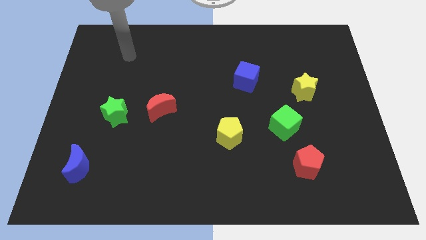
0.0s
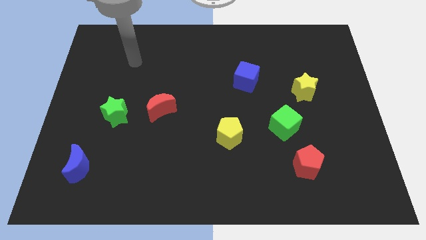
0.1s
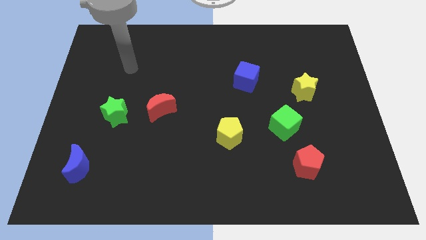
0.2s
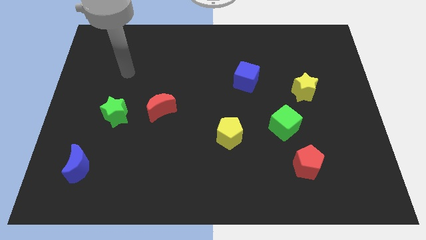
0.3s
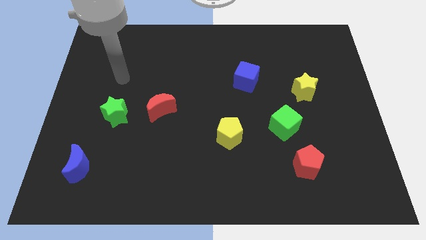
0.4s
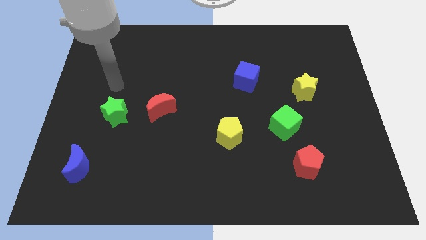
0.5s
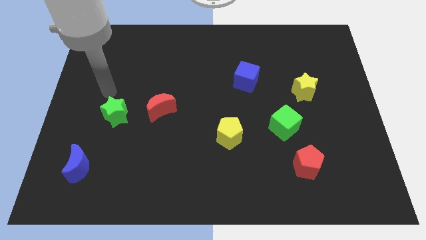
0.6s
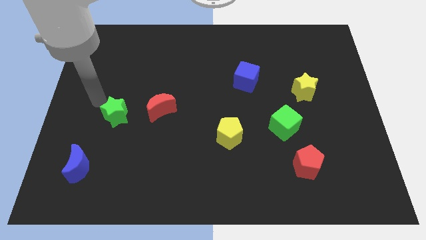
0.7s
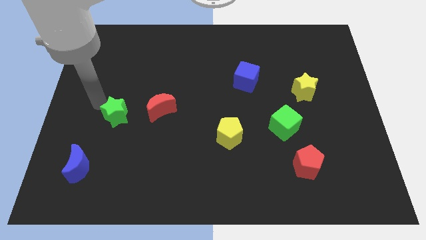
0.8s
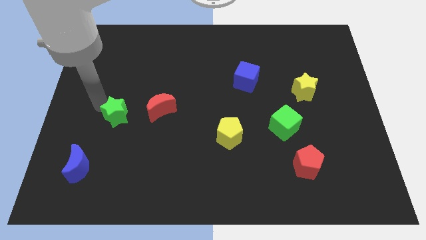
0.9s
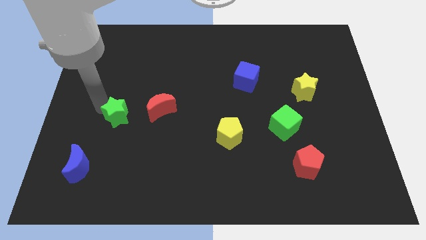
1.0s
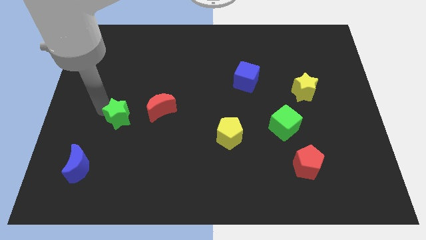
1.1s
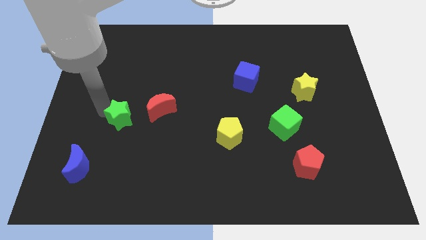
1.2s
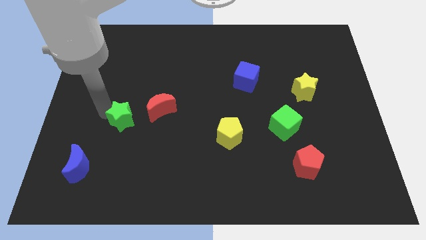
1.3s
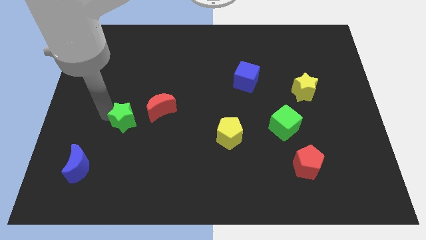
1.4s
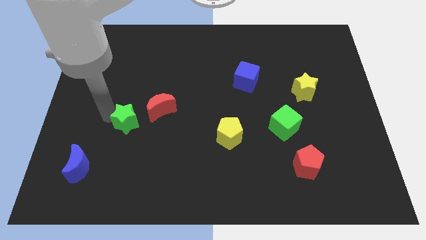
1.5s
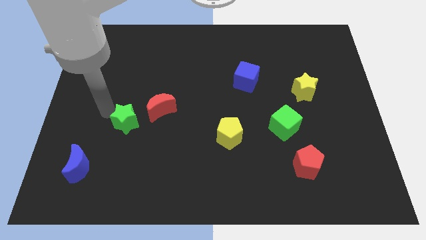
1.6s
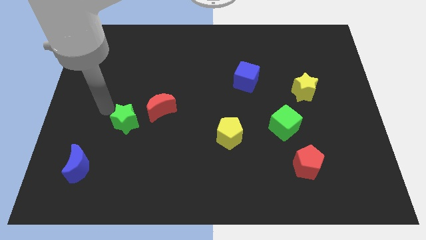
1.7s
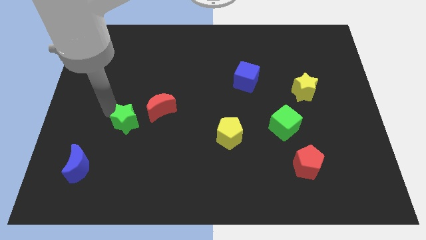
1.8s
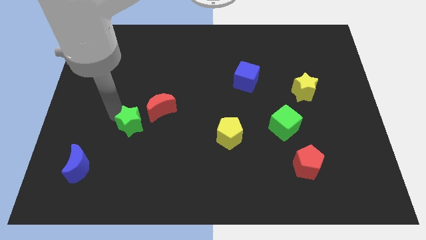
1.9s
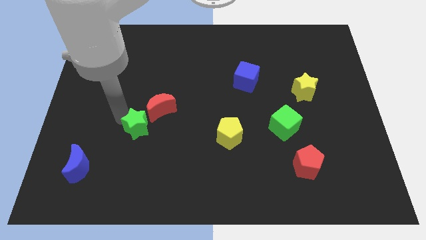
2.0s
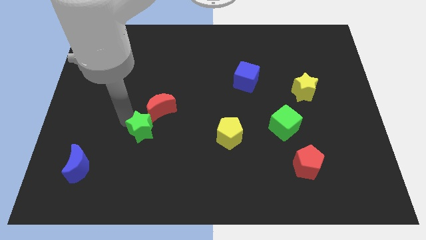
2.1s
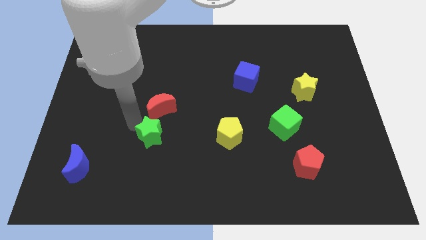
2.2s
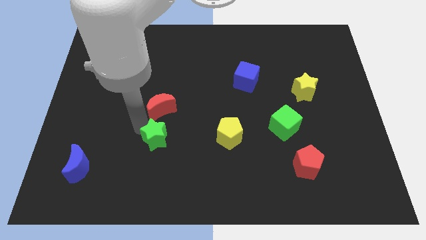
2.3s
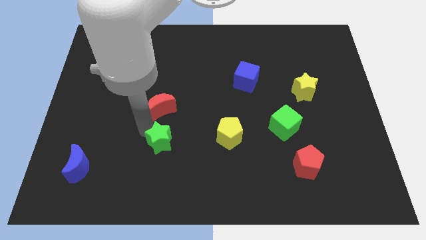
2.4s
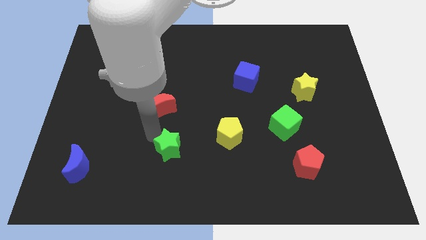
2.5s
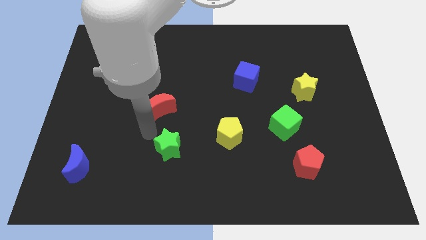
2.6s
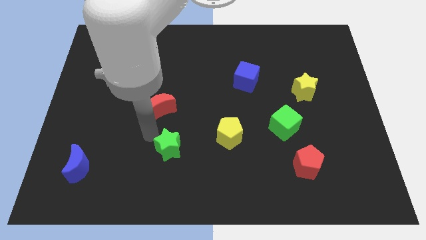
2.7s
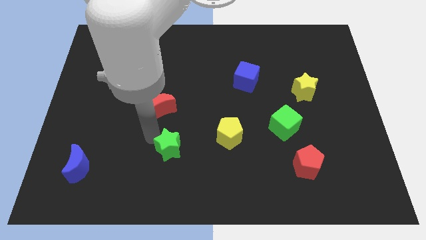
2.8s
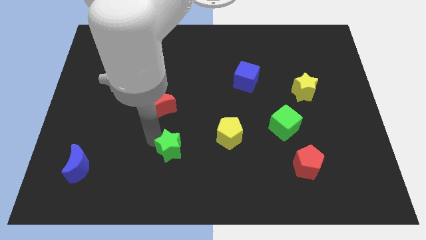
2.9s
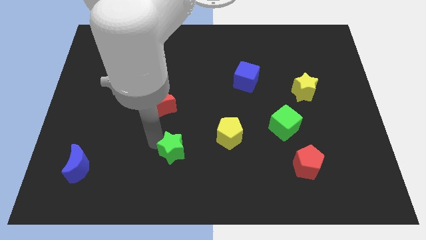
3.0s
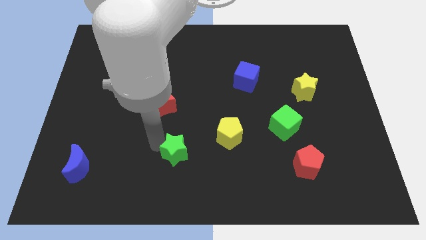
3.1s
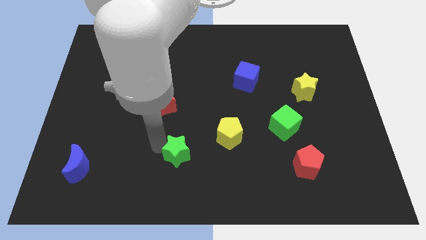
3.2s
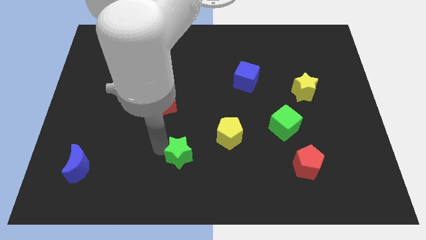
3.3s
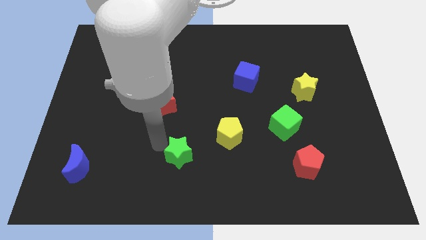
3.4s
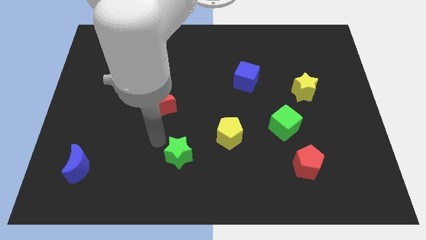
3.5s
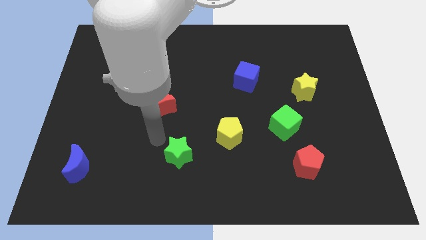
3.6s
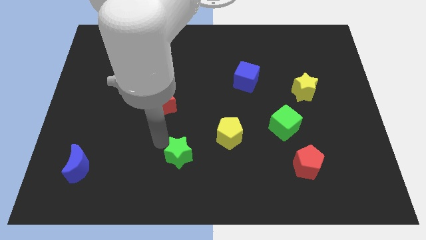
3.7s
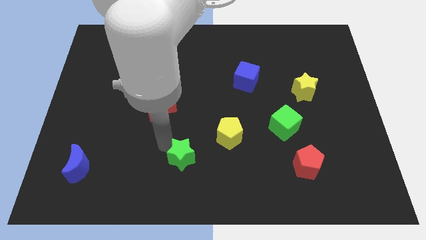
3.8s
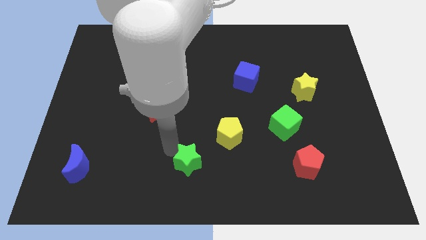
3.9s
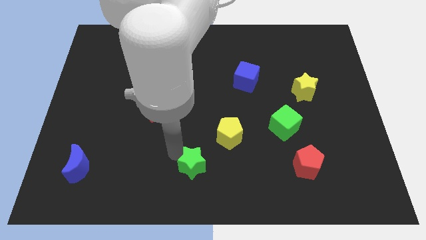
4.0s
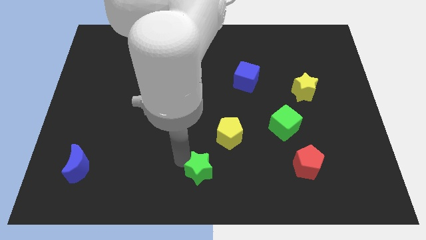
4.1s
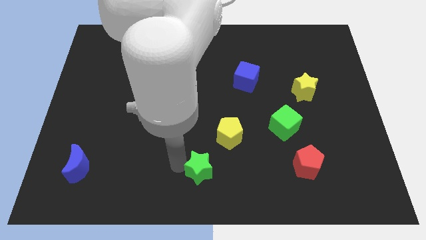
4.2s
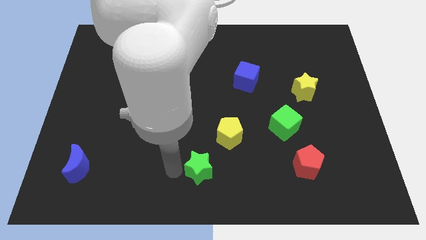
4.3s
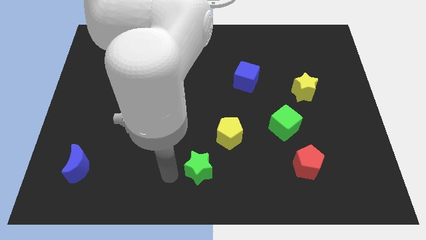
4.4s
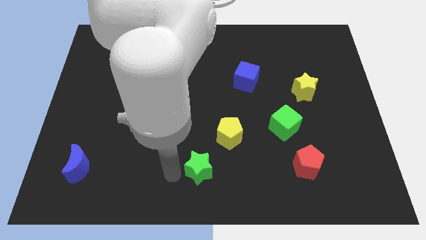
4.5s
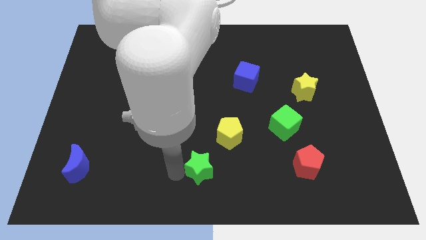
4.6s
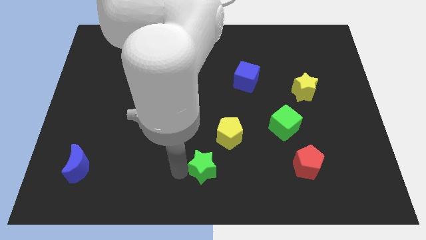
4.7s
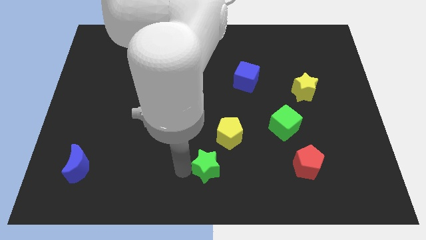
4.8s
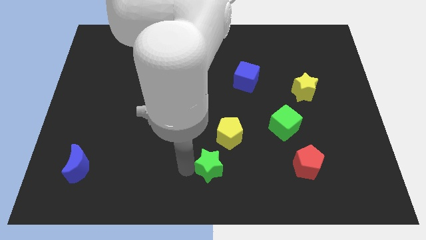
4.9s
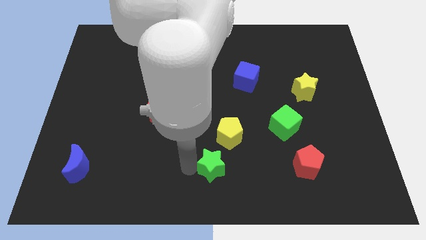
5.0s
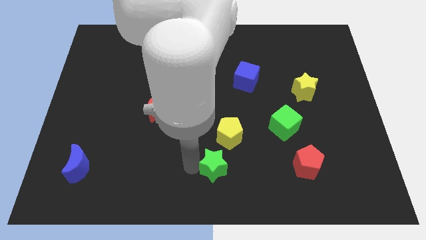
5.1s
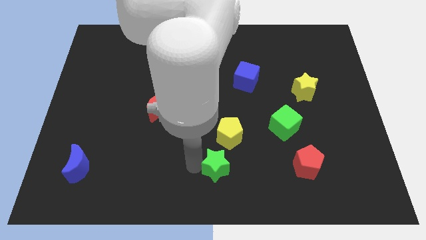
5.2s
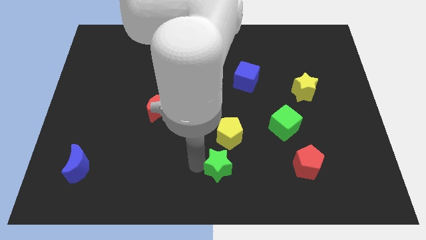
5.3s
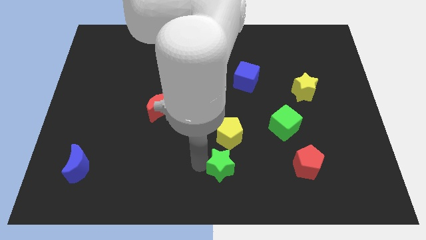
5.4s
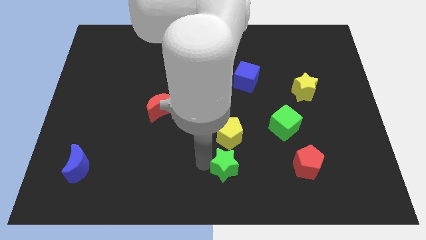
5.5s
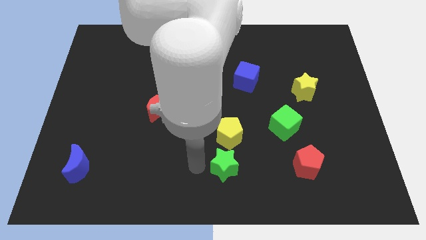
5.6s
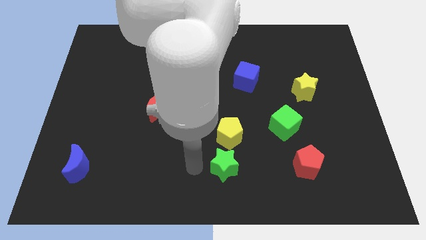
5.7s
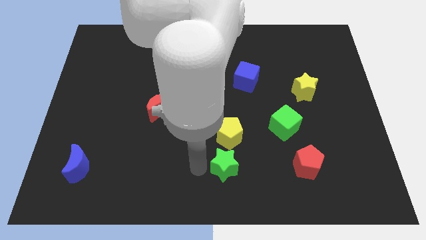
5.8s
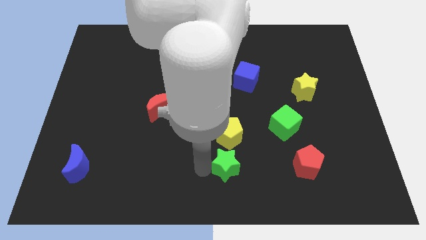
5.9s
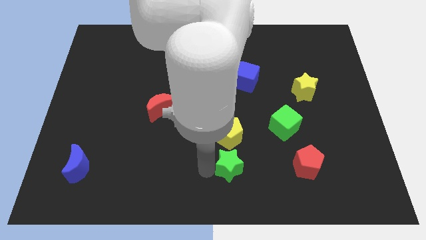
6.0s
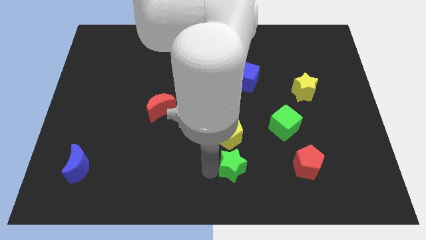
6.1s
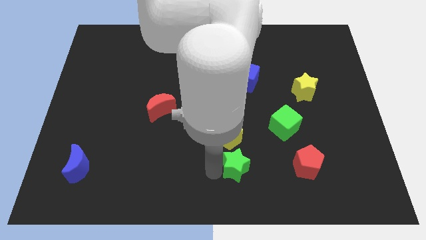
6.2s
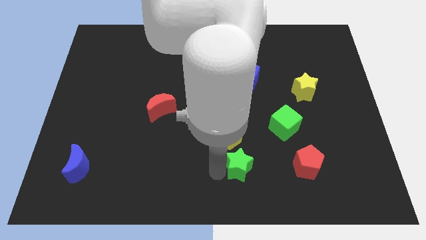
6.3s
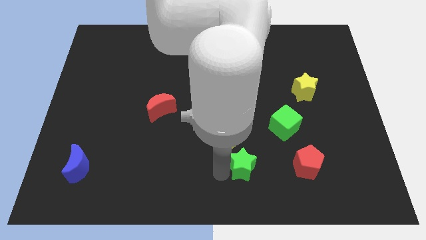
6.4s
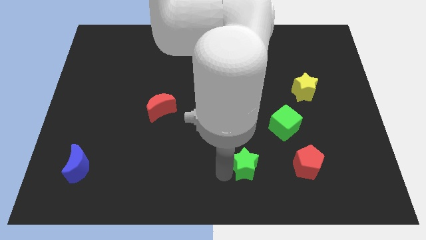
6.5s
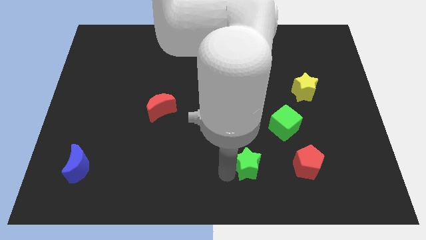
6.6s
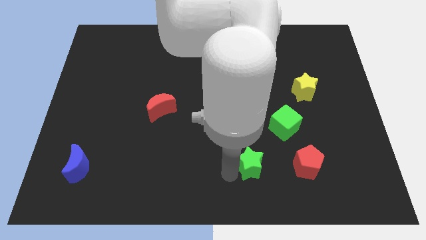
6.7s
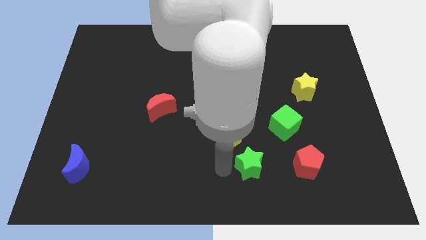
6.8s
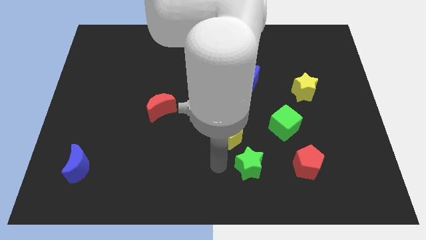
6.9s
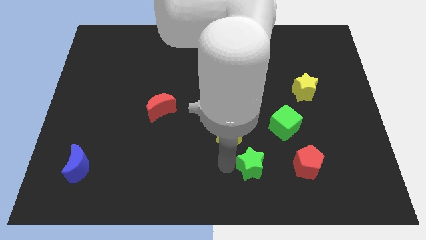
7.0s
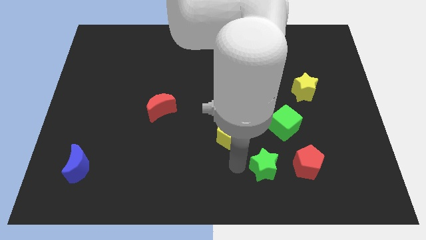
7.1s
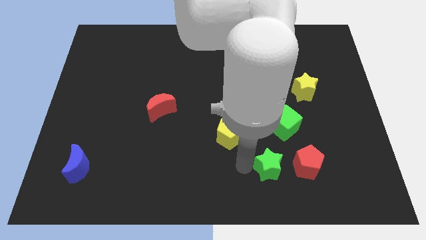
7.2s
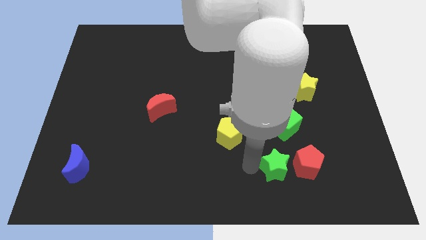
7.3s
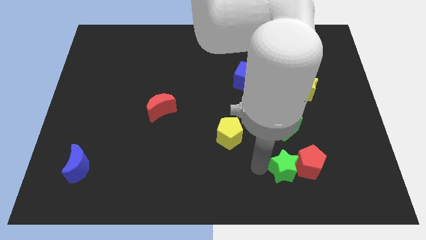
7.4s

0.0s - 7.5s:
slide the green star close to the red pentagon
